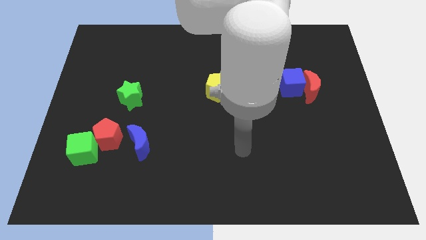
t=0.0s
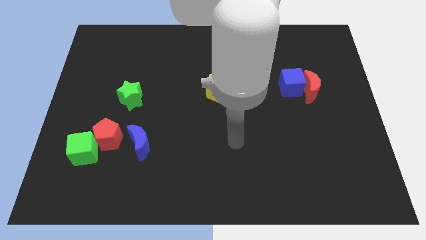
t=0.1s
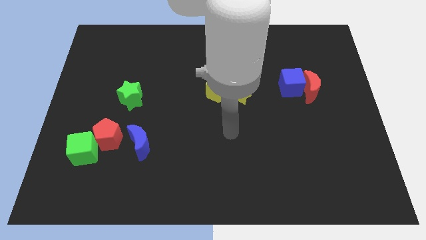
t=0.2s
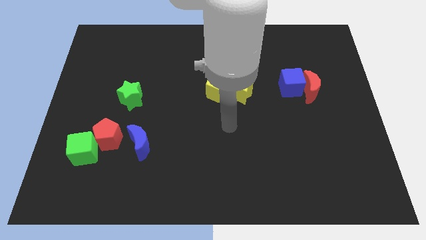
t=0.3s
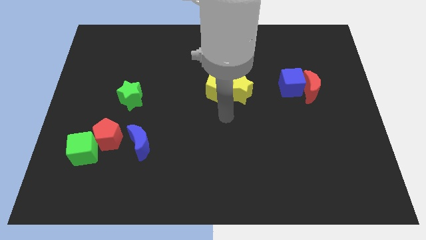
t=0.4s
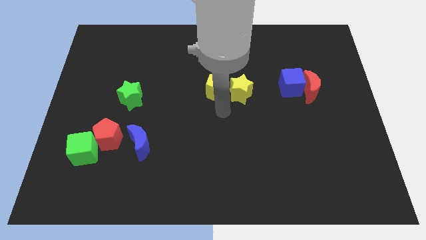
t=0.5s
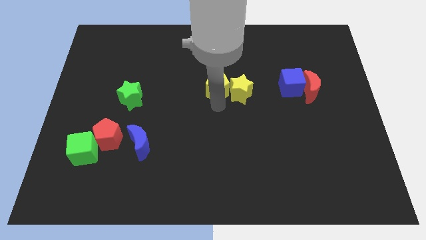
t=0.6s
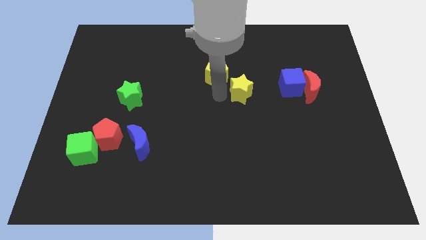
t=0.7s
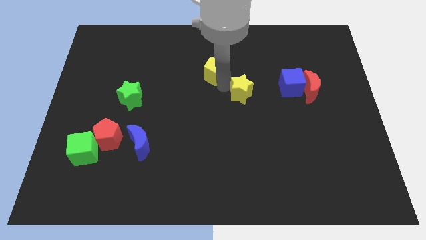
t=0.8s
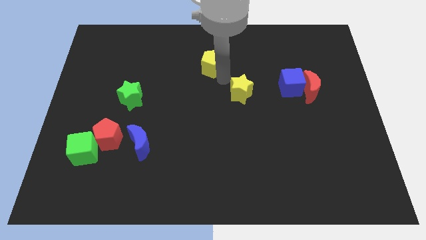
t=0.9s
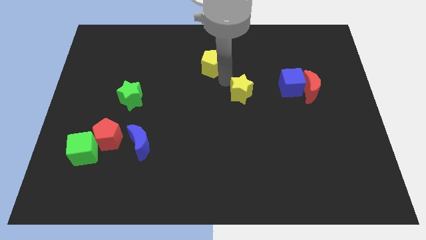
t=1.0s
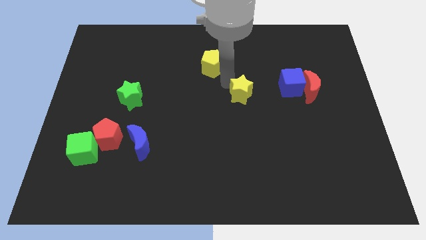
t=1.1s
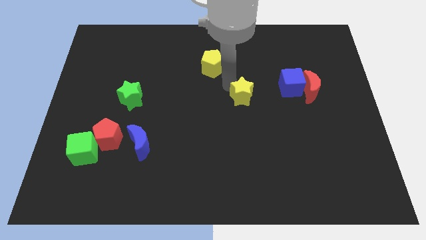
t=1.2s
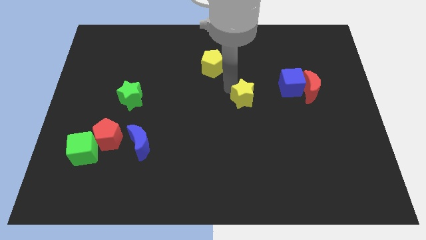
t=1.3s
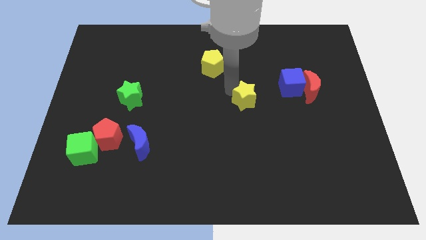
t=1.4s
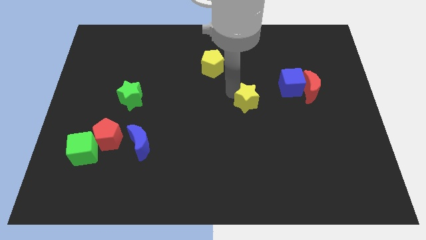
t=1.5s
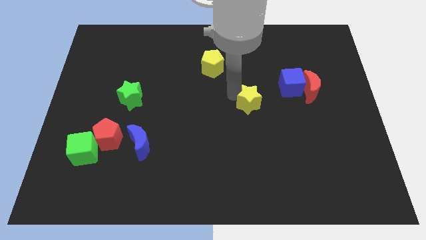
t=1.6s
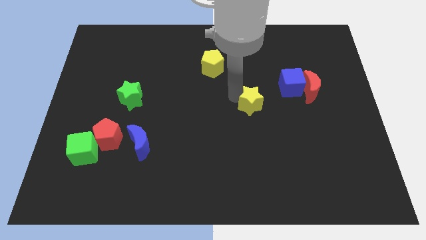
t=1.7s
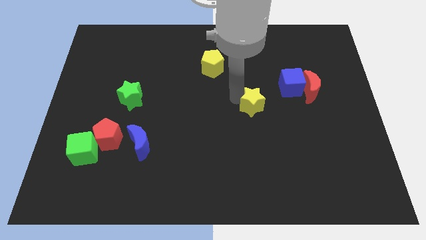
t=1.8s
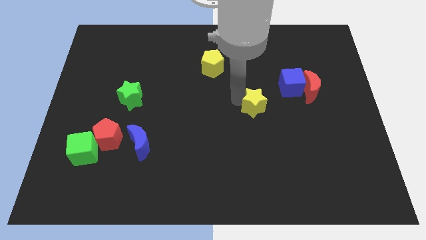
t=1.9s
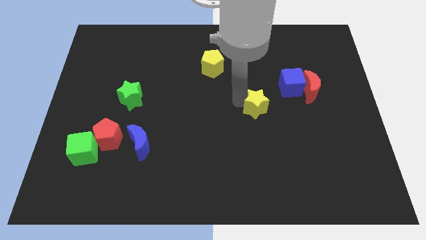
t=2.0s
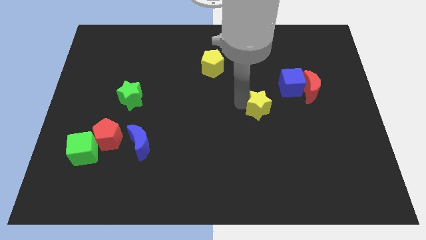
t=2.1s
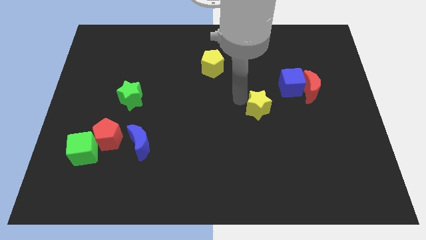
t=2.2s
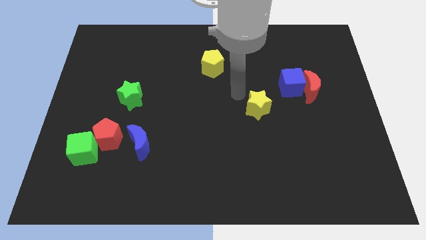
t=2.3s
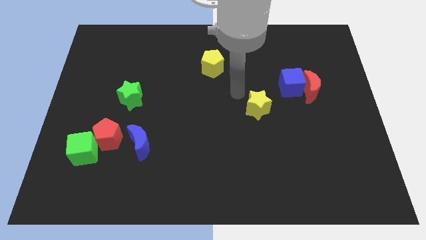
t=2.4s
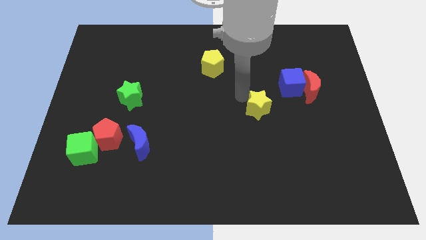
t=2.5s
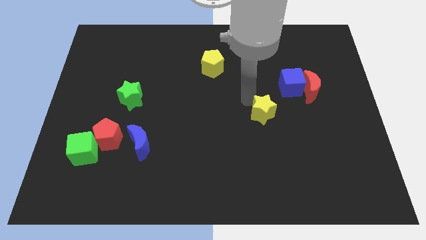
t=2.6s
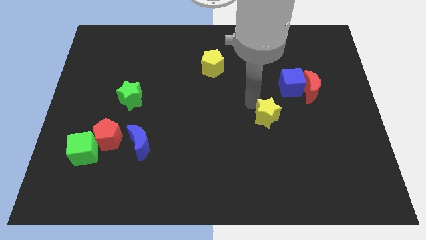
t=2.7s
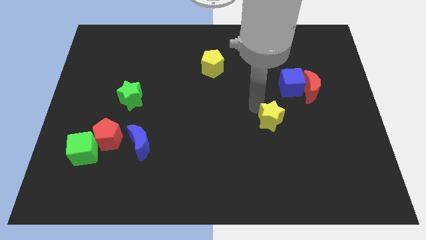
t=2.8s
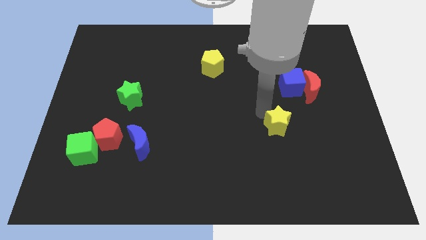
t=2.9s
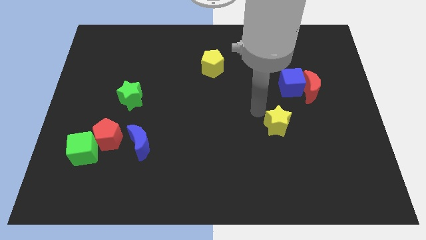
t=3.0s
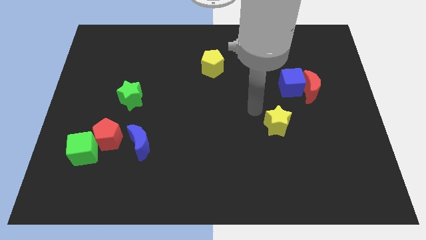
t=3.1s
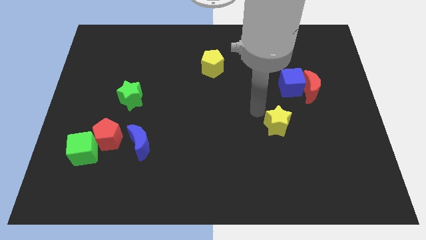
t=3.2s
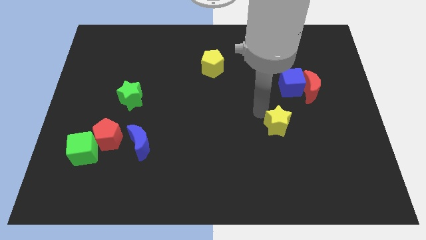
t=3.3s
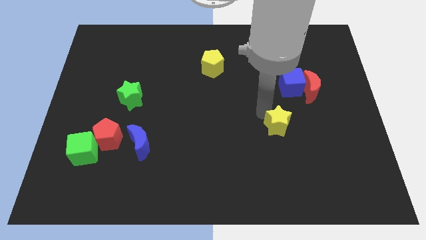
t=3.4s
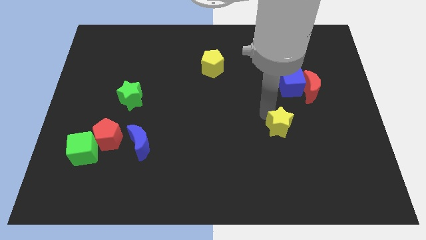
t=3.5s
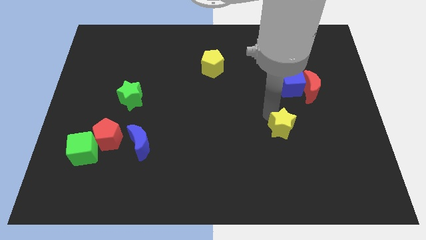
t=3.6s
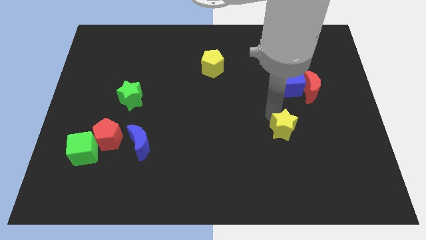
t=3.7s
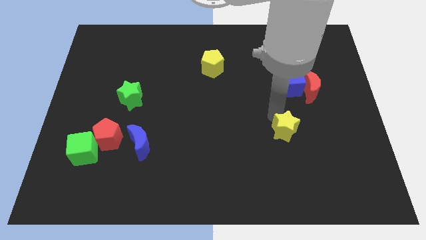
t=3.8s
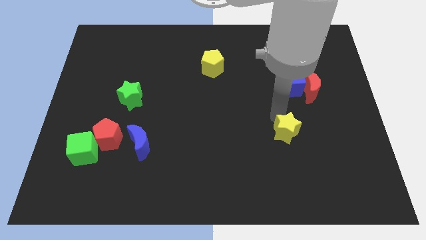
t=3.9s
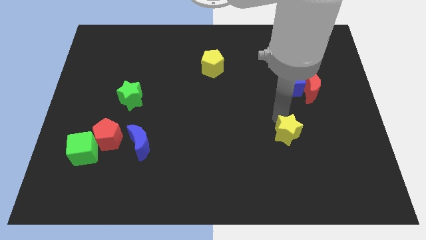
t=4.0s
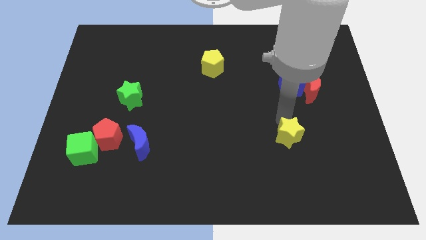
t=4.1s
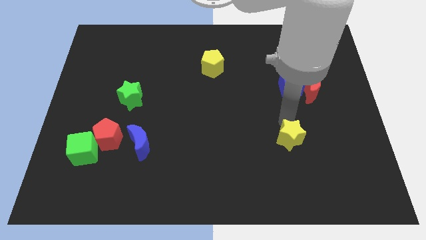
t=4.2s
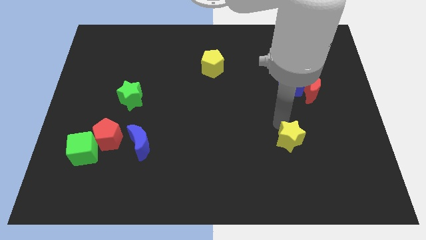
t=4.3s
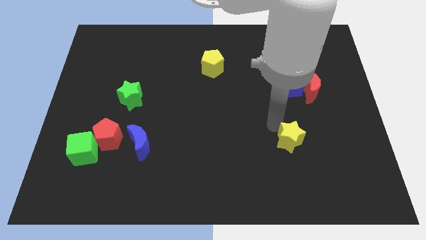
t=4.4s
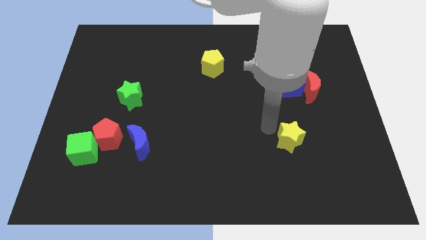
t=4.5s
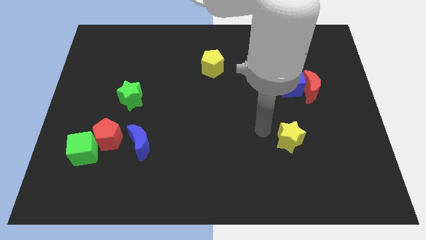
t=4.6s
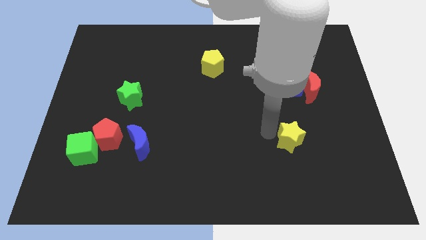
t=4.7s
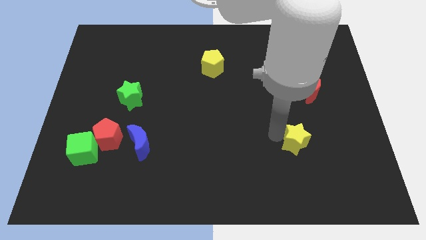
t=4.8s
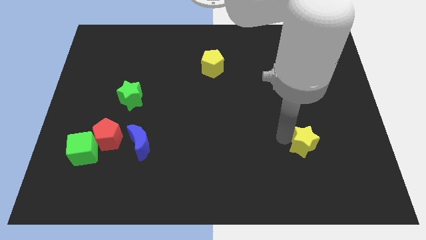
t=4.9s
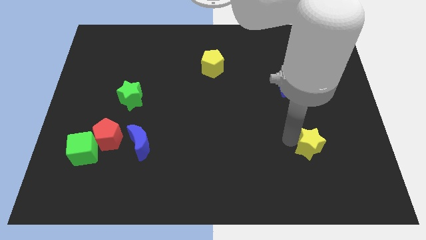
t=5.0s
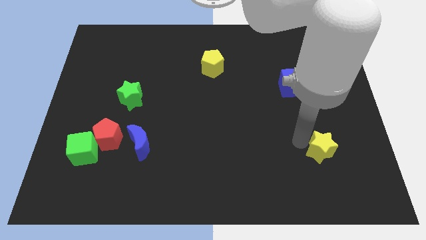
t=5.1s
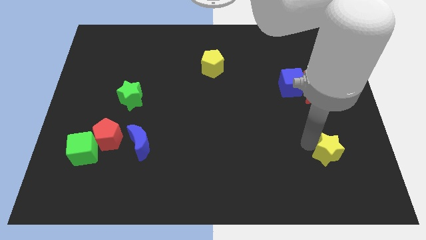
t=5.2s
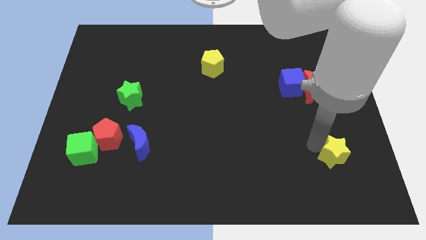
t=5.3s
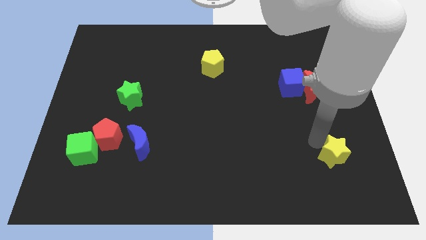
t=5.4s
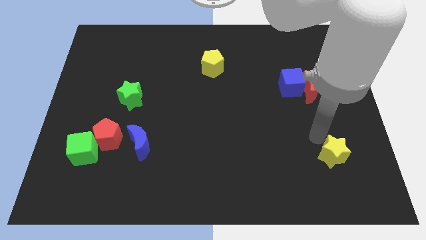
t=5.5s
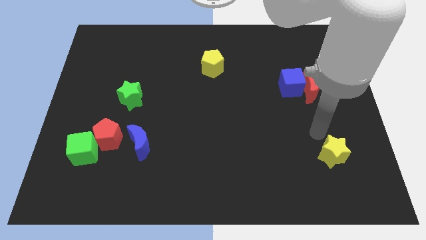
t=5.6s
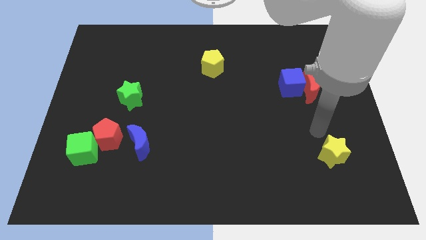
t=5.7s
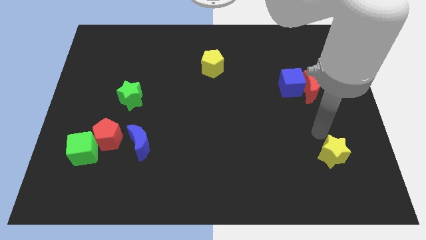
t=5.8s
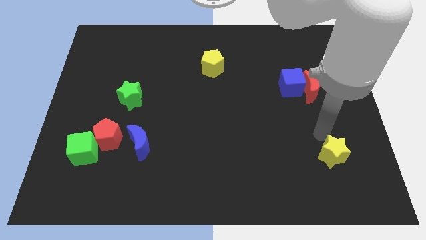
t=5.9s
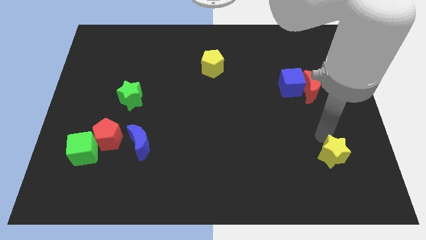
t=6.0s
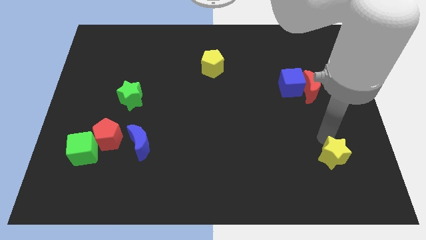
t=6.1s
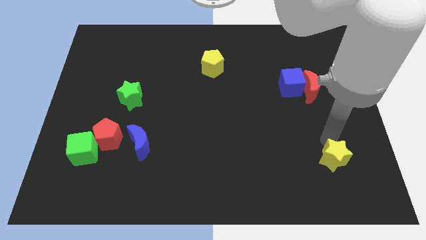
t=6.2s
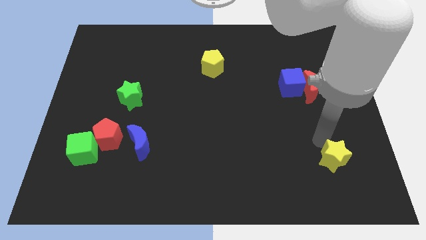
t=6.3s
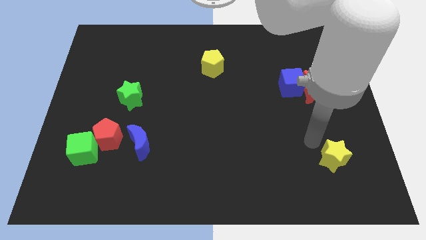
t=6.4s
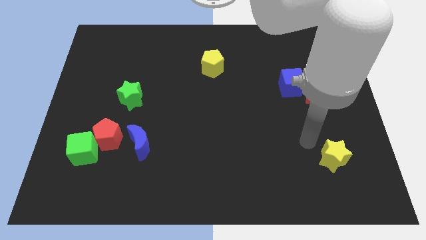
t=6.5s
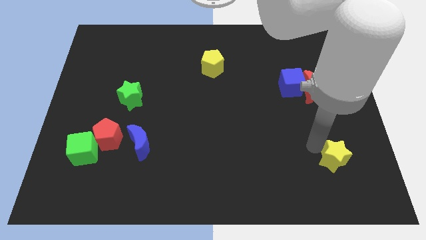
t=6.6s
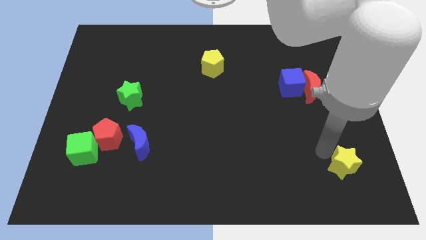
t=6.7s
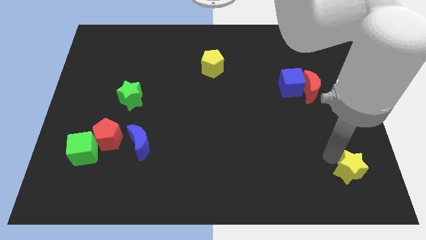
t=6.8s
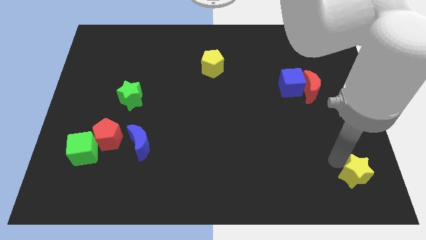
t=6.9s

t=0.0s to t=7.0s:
slide the yellow star to the lower right corner

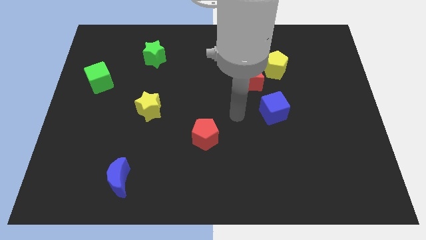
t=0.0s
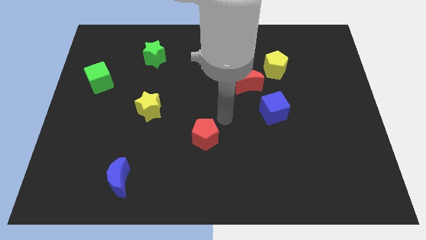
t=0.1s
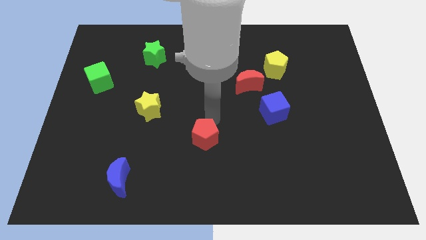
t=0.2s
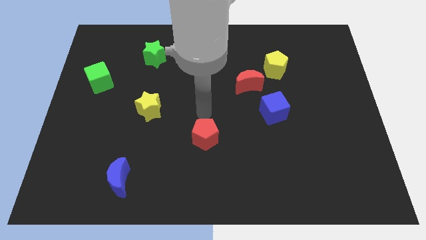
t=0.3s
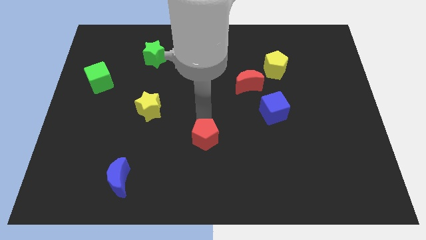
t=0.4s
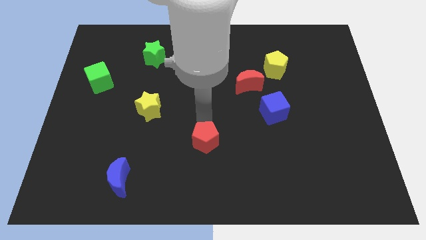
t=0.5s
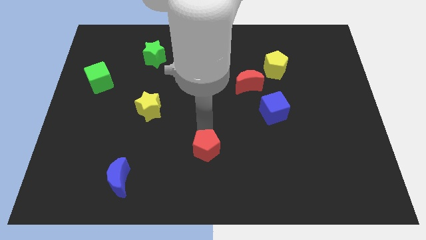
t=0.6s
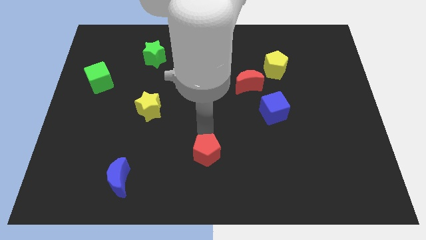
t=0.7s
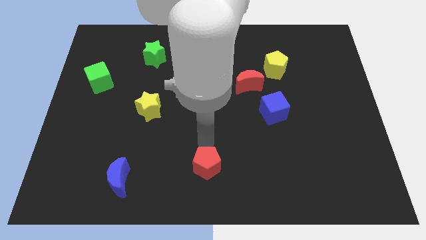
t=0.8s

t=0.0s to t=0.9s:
slide the red pentagon to the bottom
